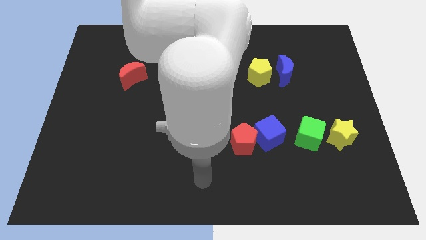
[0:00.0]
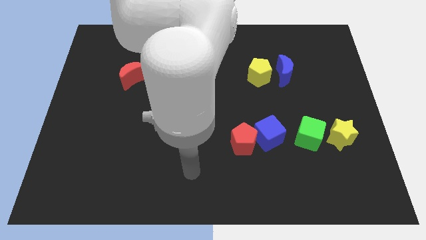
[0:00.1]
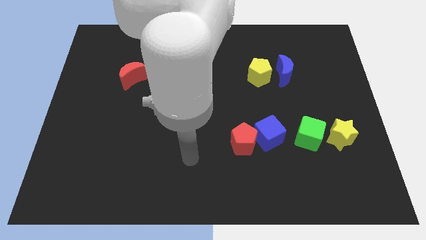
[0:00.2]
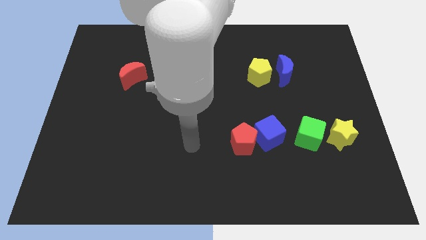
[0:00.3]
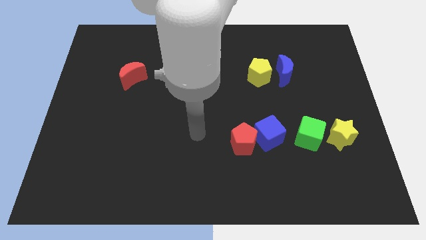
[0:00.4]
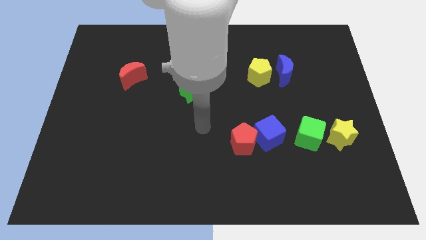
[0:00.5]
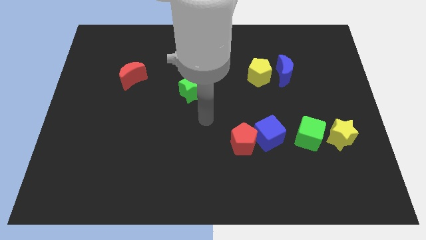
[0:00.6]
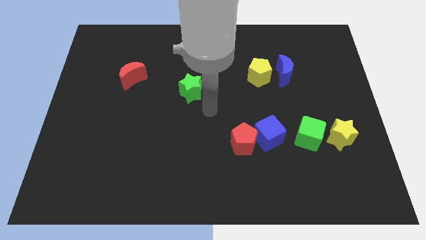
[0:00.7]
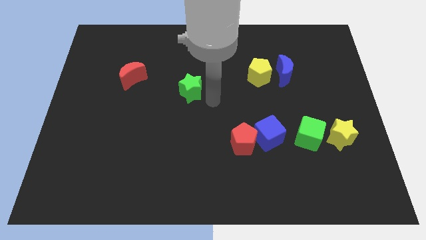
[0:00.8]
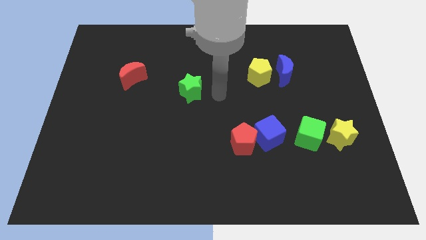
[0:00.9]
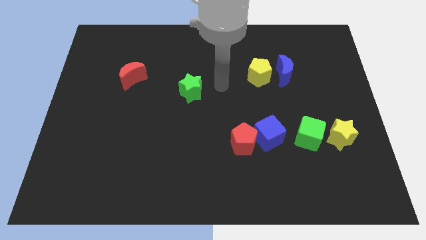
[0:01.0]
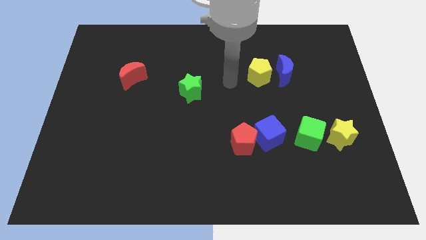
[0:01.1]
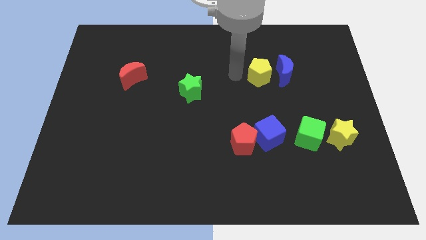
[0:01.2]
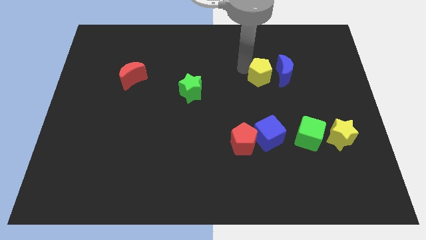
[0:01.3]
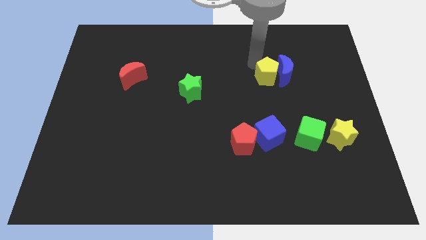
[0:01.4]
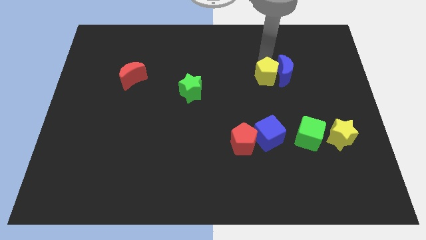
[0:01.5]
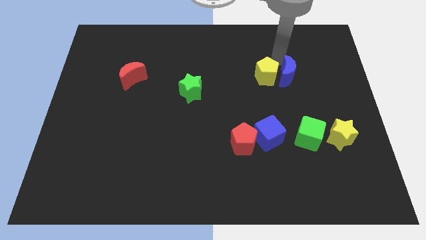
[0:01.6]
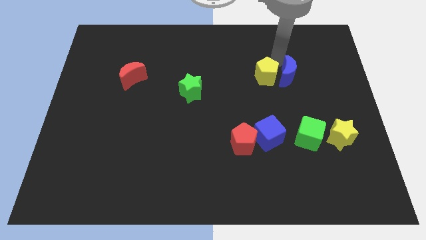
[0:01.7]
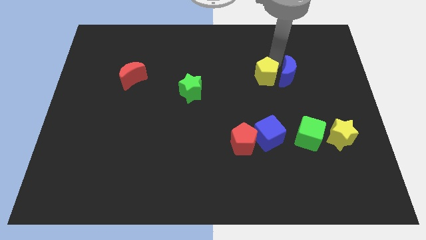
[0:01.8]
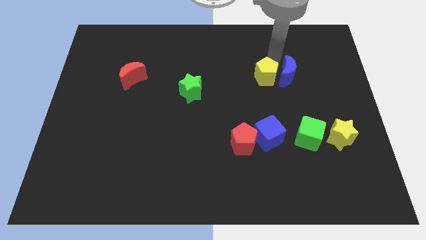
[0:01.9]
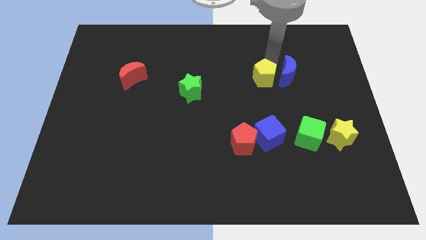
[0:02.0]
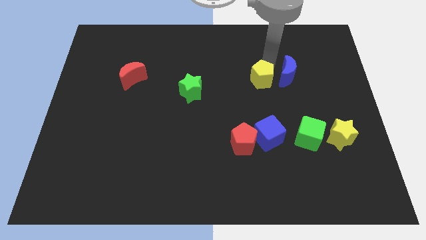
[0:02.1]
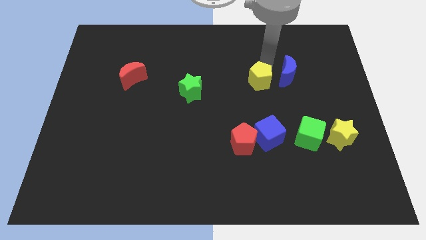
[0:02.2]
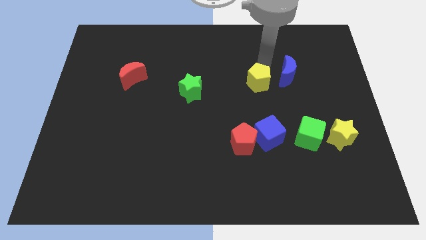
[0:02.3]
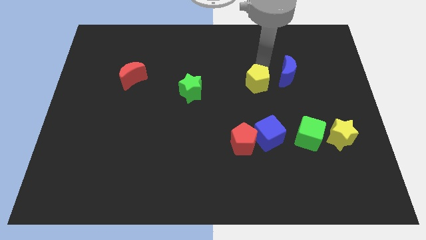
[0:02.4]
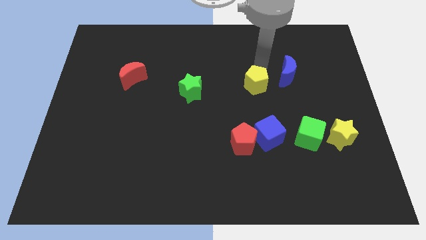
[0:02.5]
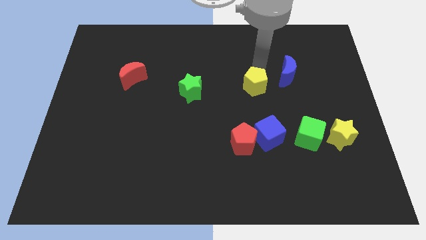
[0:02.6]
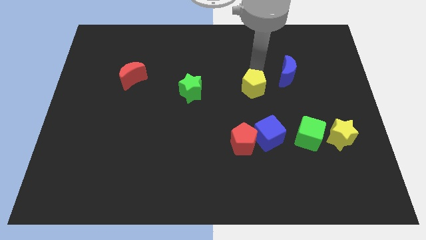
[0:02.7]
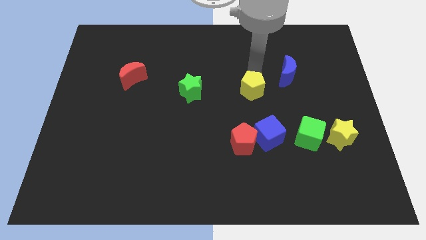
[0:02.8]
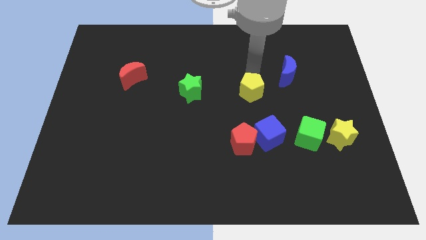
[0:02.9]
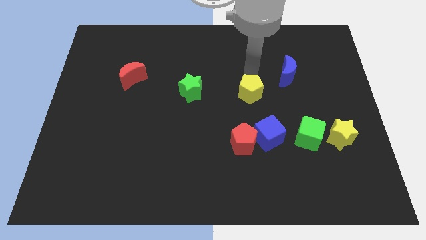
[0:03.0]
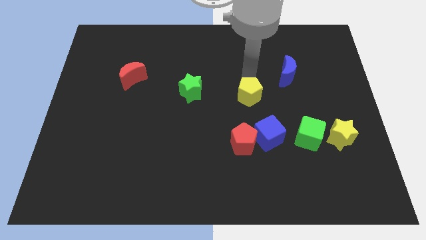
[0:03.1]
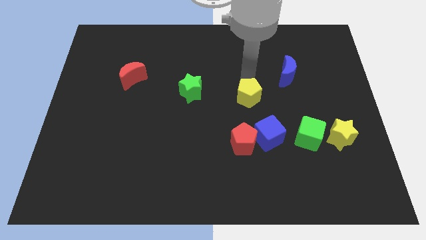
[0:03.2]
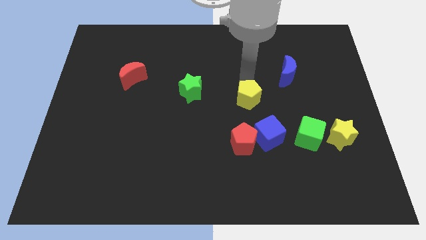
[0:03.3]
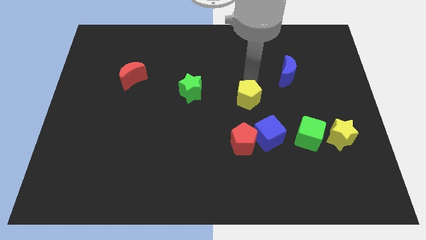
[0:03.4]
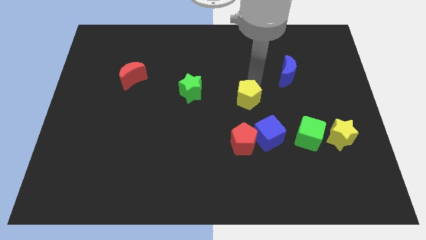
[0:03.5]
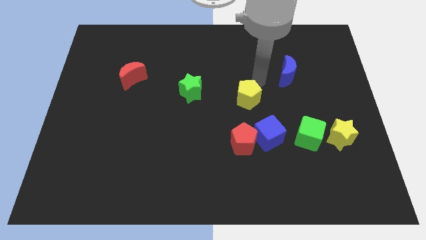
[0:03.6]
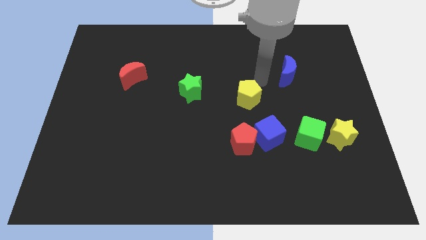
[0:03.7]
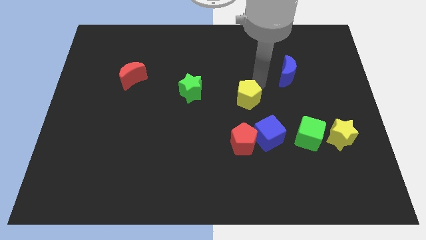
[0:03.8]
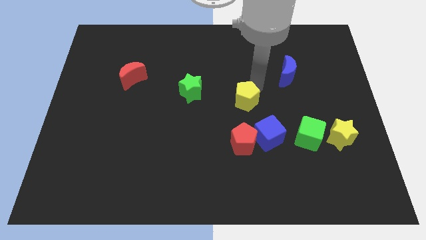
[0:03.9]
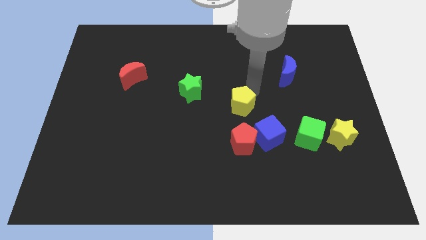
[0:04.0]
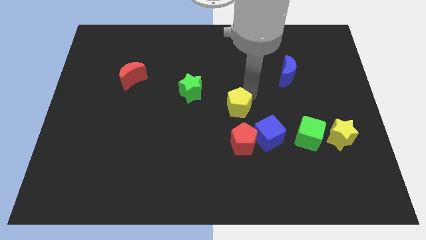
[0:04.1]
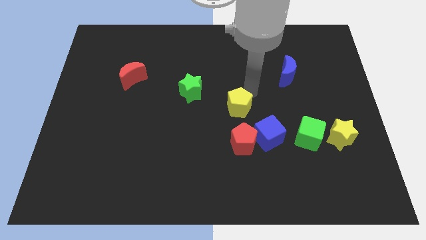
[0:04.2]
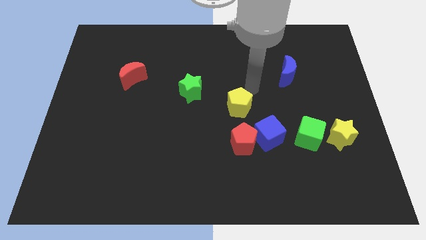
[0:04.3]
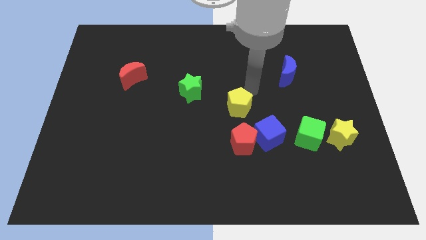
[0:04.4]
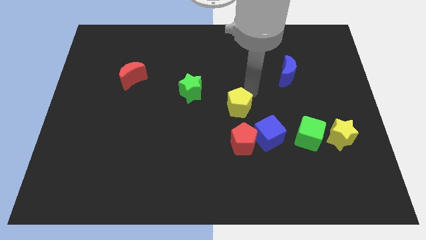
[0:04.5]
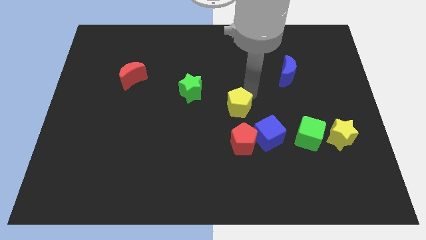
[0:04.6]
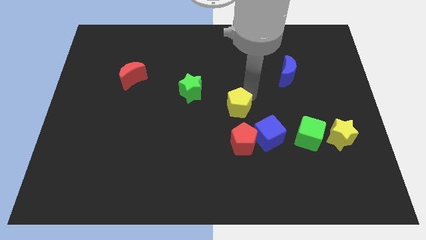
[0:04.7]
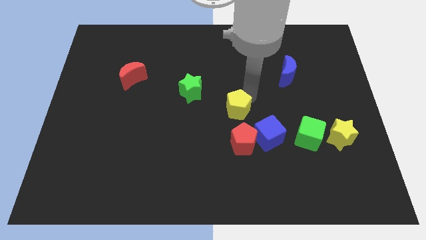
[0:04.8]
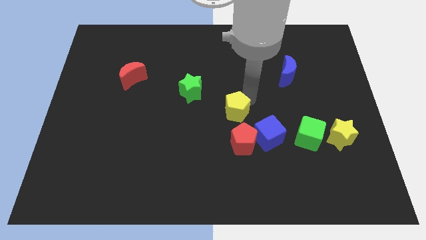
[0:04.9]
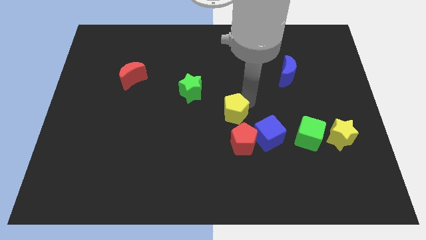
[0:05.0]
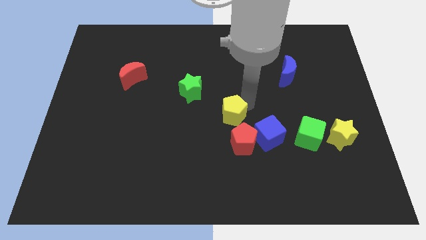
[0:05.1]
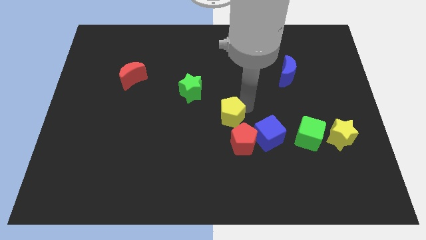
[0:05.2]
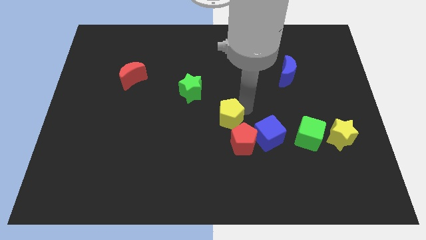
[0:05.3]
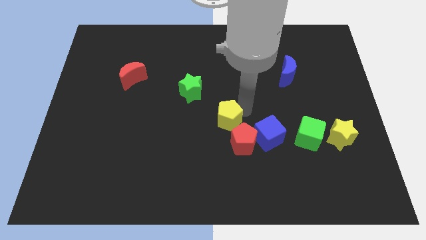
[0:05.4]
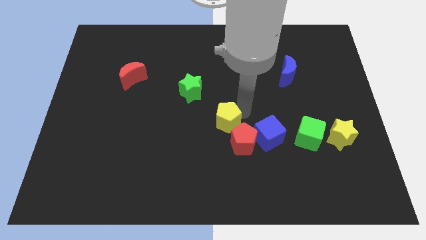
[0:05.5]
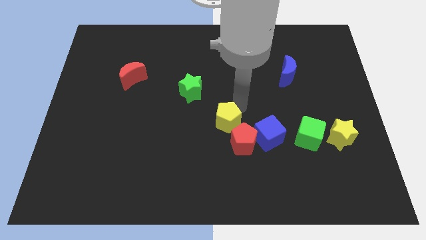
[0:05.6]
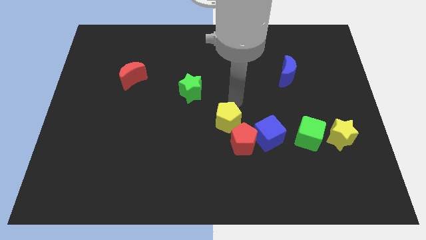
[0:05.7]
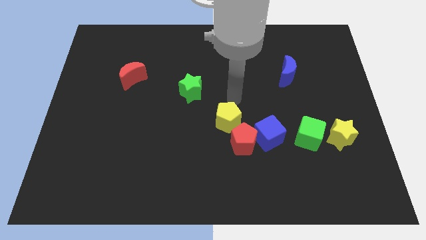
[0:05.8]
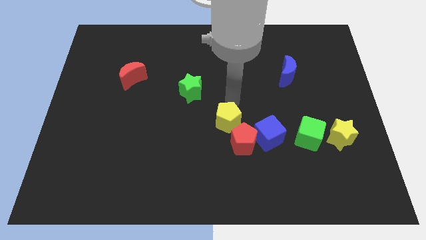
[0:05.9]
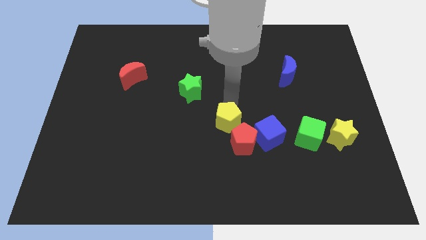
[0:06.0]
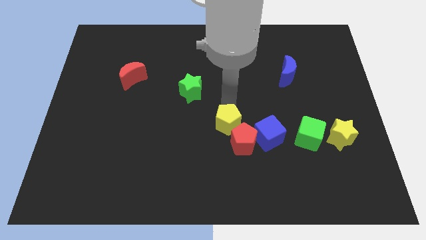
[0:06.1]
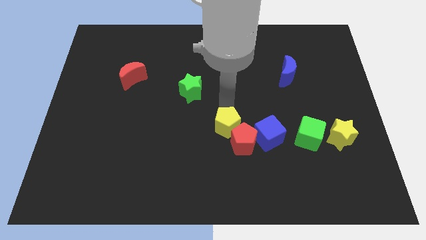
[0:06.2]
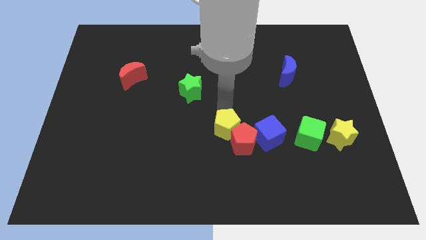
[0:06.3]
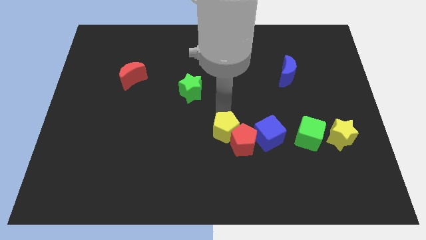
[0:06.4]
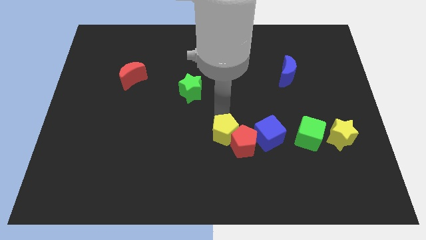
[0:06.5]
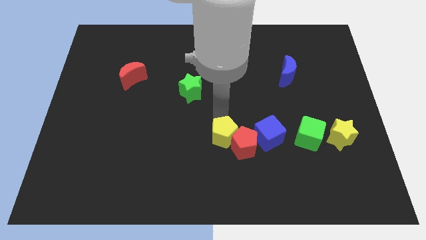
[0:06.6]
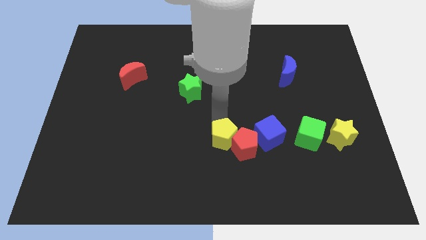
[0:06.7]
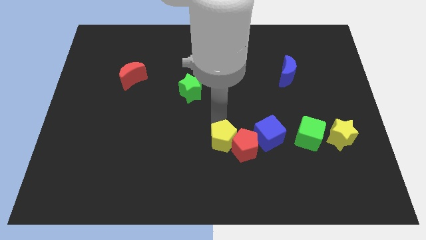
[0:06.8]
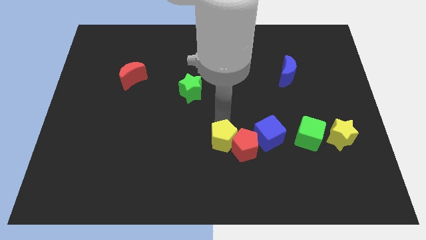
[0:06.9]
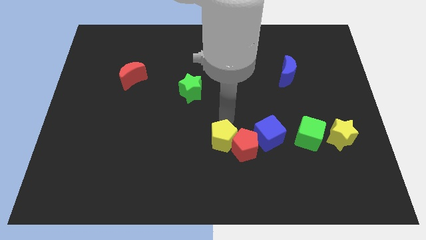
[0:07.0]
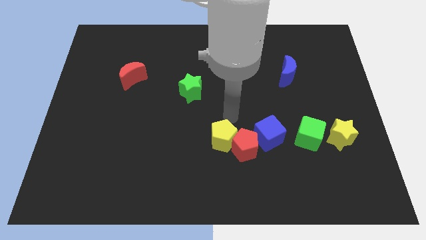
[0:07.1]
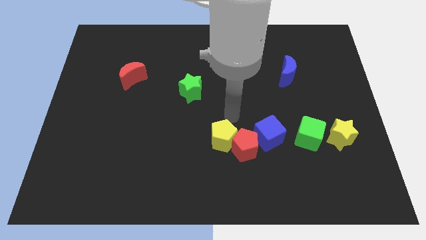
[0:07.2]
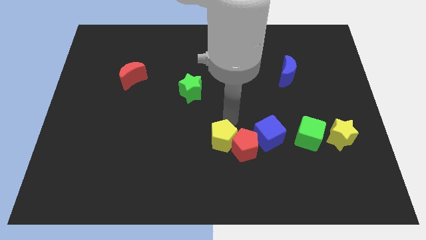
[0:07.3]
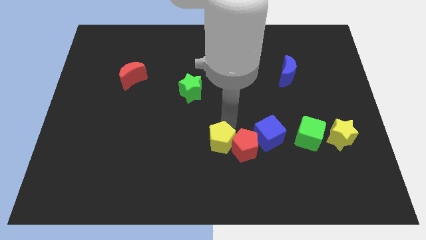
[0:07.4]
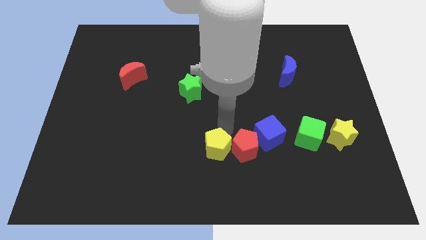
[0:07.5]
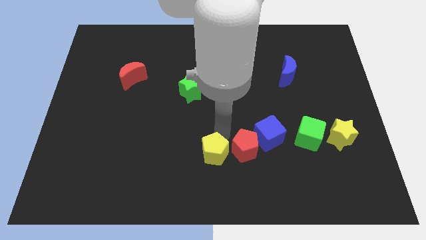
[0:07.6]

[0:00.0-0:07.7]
move the yellow pentagon to the bottom side
